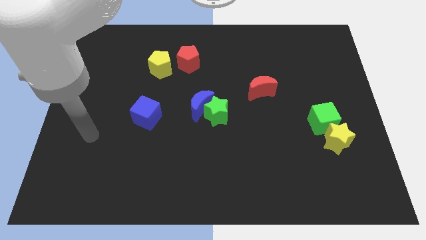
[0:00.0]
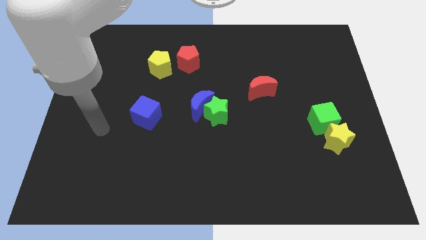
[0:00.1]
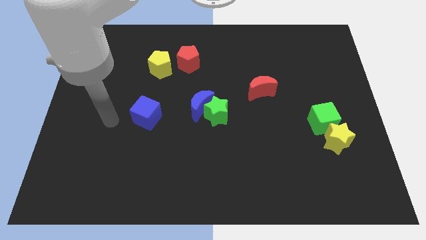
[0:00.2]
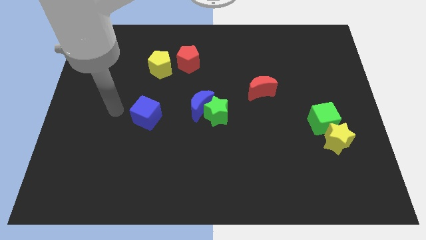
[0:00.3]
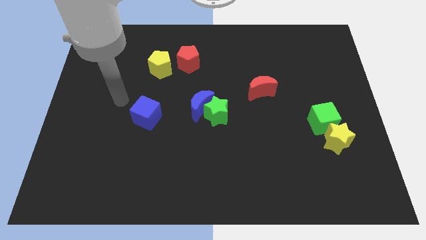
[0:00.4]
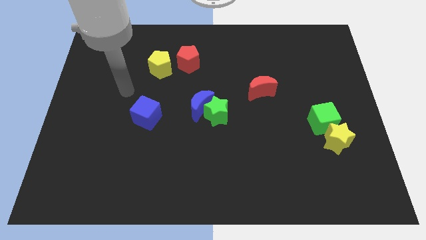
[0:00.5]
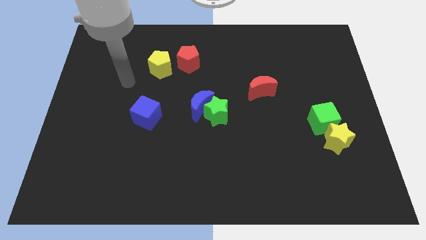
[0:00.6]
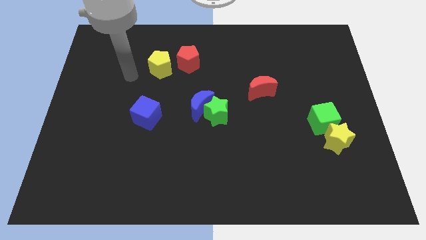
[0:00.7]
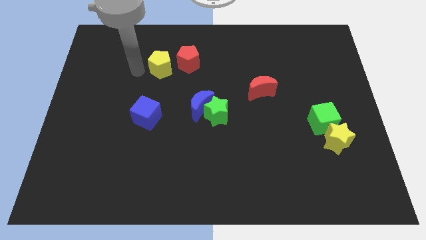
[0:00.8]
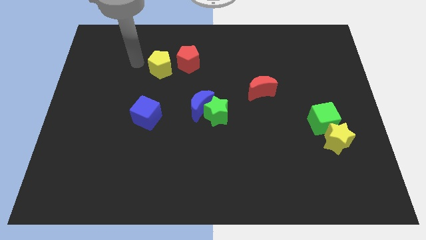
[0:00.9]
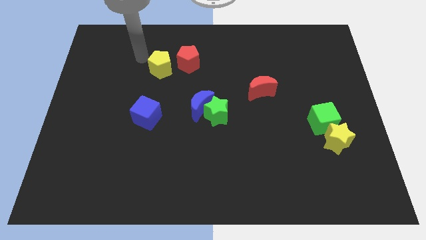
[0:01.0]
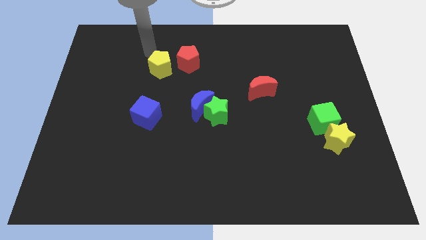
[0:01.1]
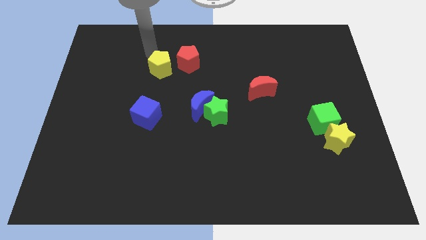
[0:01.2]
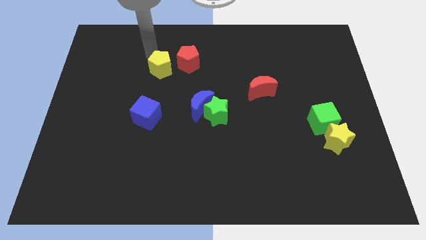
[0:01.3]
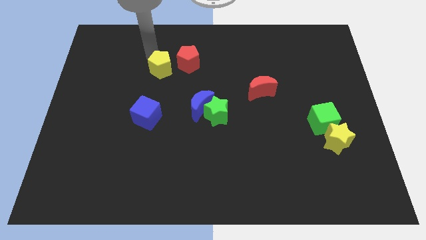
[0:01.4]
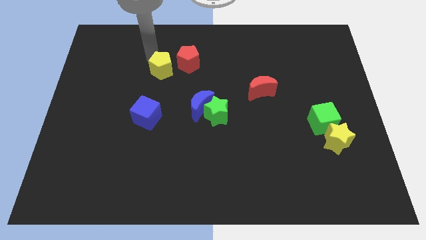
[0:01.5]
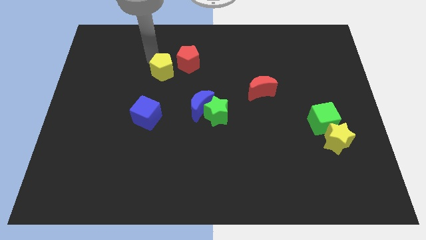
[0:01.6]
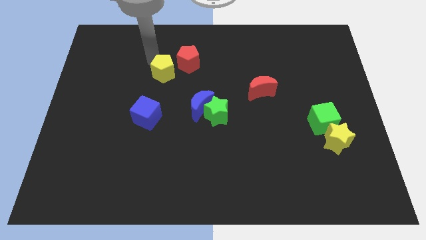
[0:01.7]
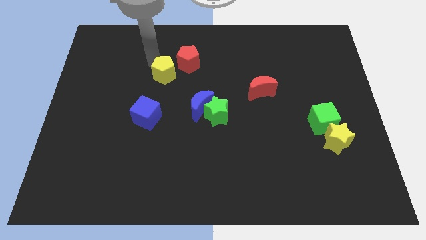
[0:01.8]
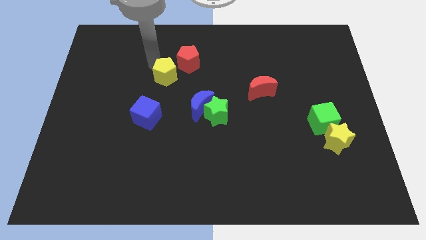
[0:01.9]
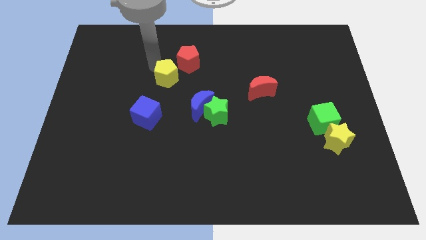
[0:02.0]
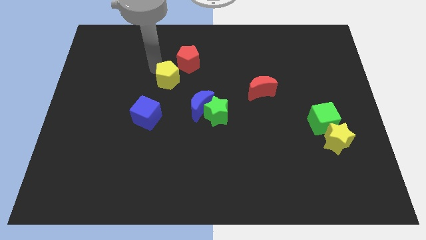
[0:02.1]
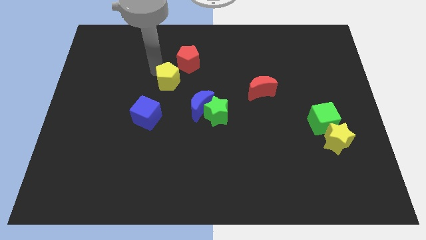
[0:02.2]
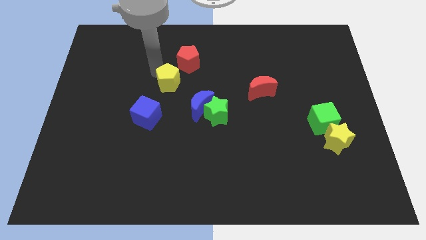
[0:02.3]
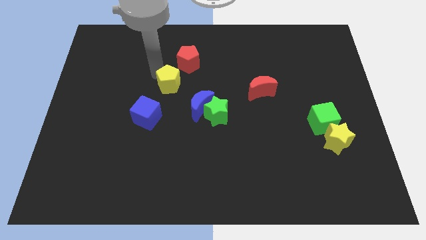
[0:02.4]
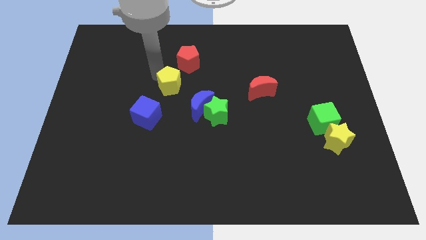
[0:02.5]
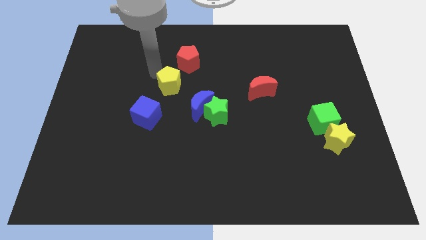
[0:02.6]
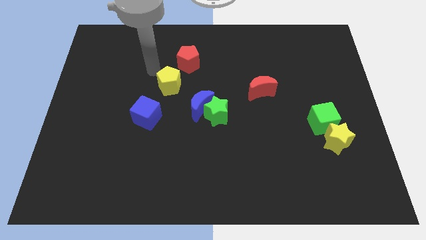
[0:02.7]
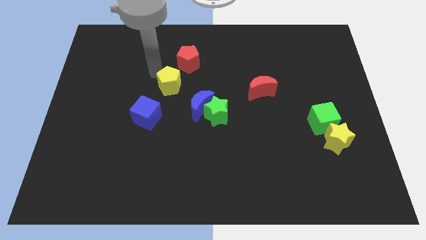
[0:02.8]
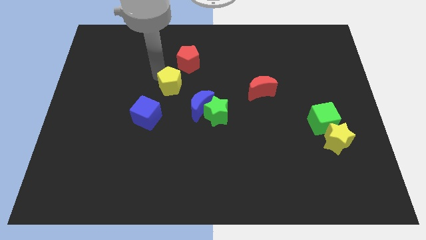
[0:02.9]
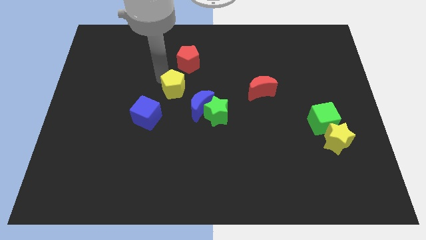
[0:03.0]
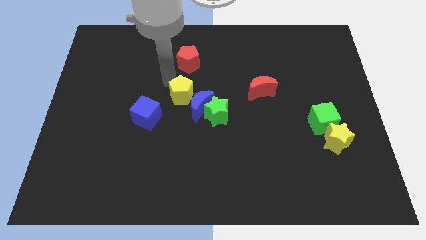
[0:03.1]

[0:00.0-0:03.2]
slightly move the yellow pentagon downwards

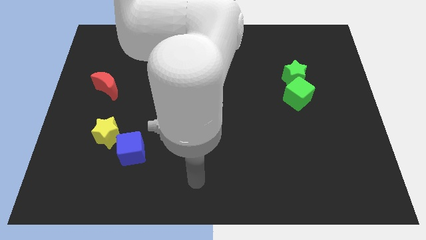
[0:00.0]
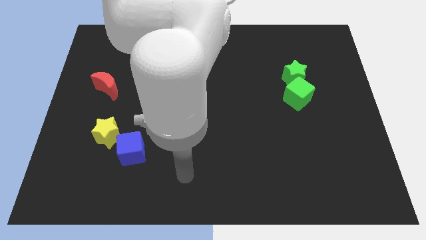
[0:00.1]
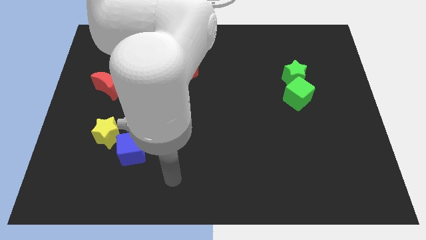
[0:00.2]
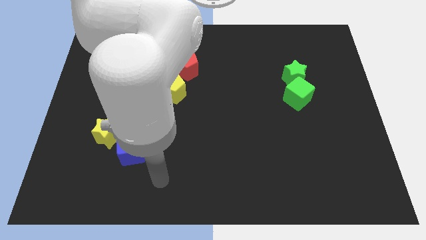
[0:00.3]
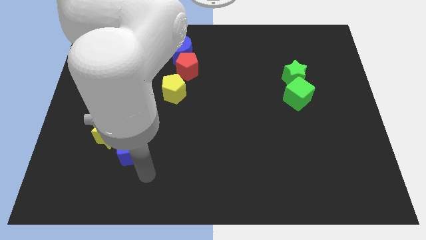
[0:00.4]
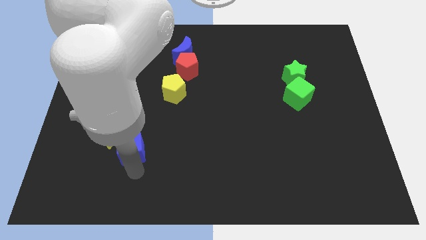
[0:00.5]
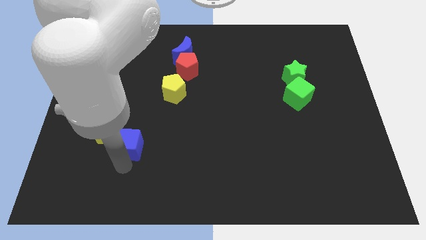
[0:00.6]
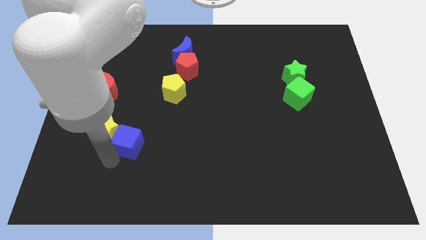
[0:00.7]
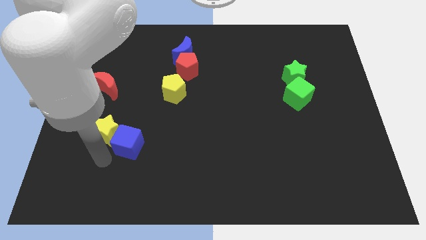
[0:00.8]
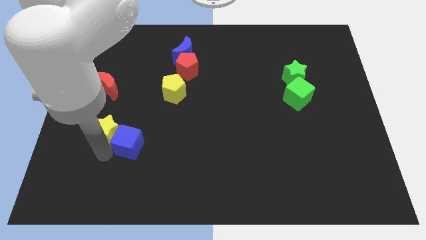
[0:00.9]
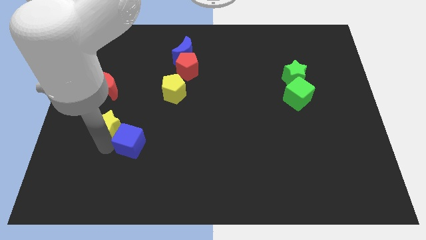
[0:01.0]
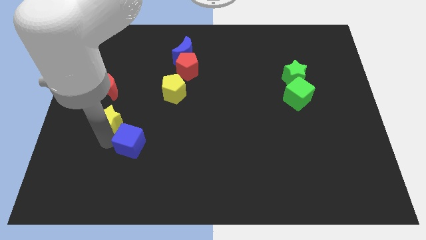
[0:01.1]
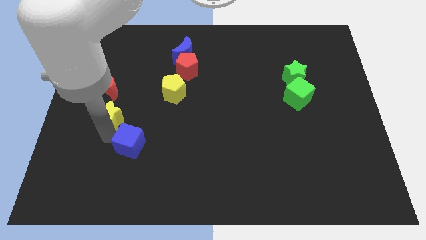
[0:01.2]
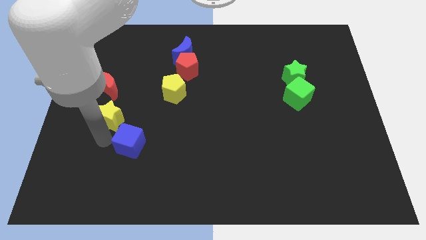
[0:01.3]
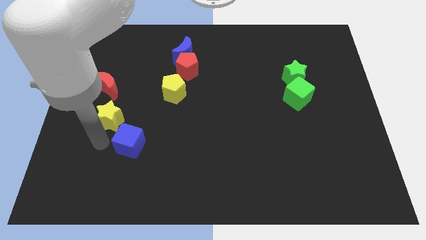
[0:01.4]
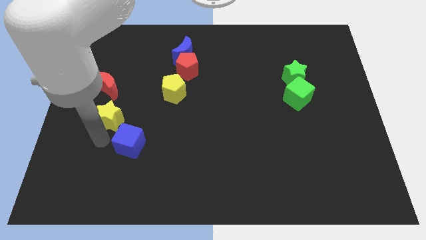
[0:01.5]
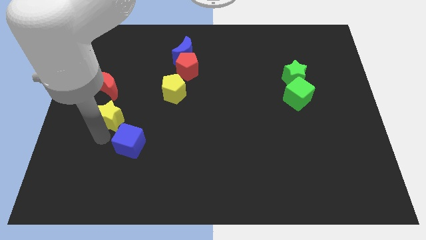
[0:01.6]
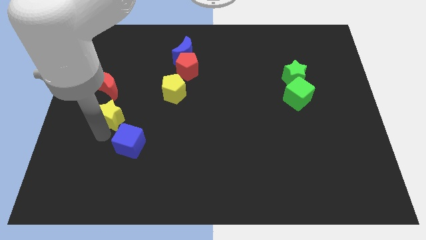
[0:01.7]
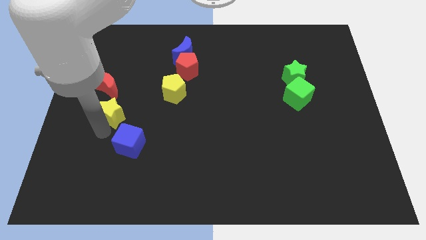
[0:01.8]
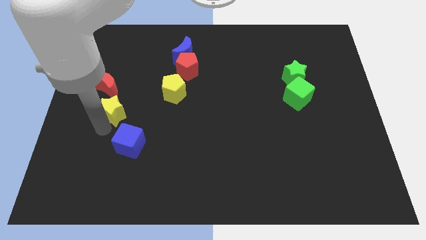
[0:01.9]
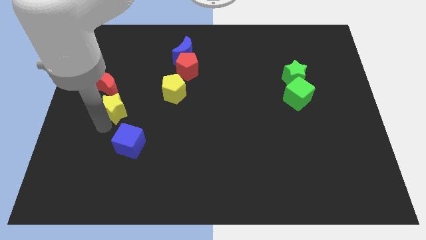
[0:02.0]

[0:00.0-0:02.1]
push the yellow star upwards a little

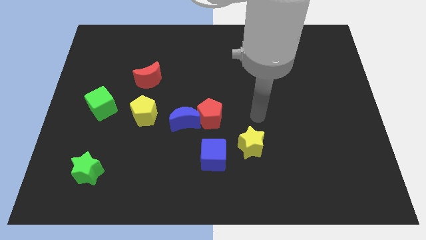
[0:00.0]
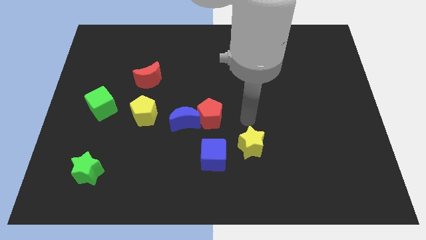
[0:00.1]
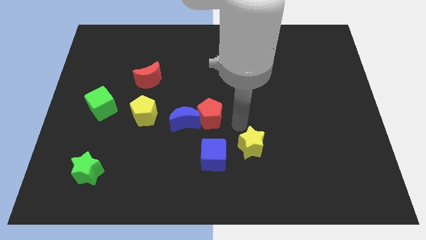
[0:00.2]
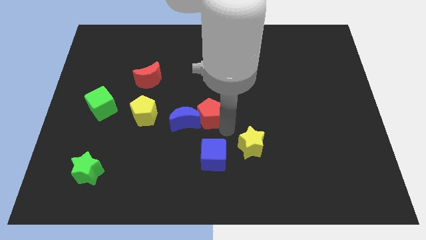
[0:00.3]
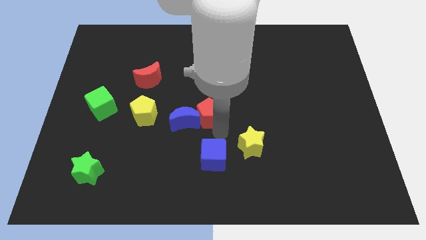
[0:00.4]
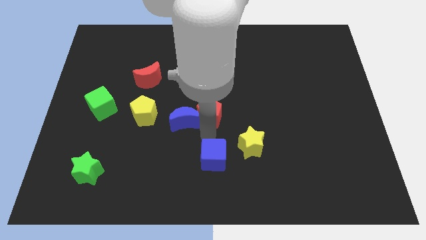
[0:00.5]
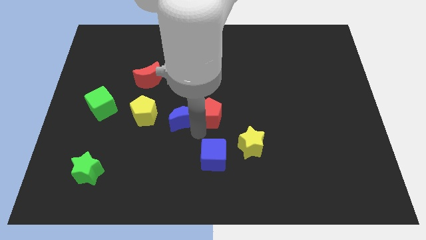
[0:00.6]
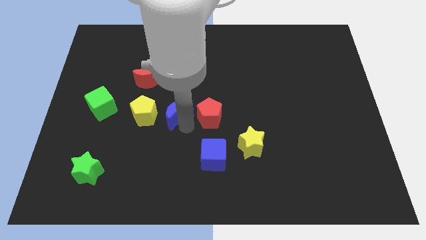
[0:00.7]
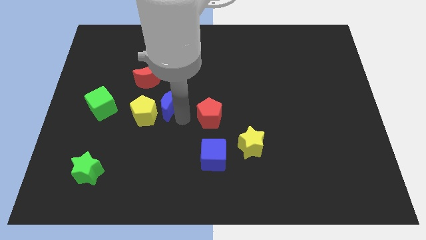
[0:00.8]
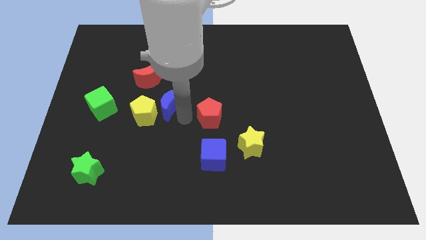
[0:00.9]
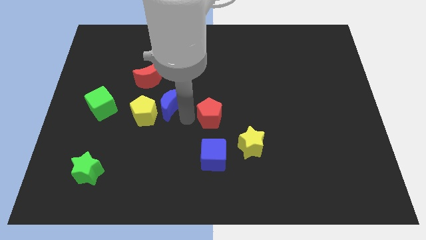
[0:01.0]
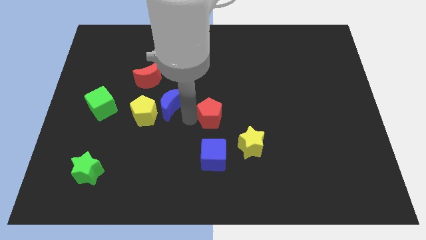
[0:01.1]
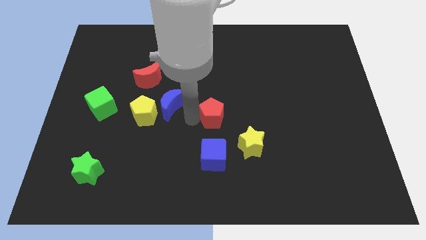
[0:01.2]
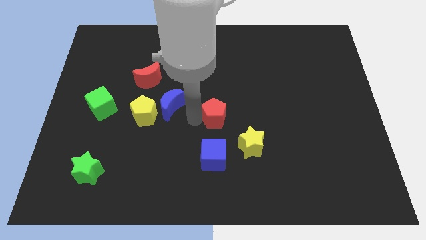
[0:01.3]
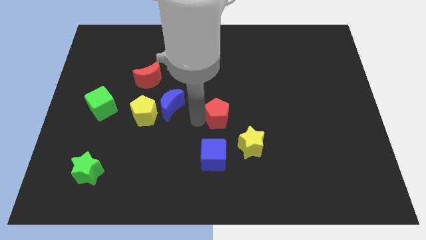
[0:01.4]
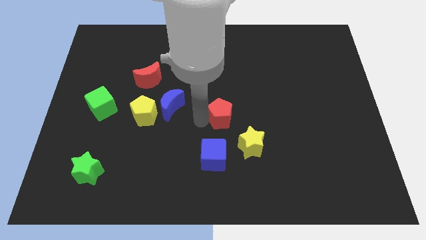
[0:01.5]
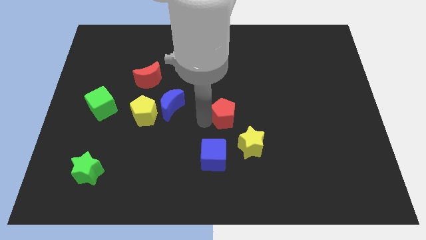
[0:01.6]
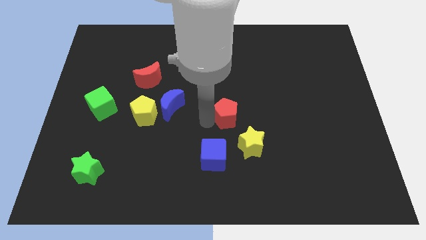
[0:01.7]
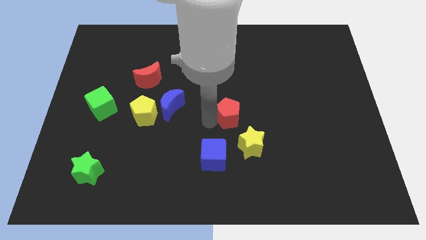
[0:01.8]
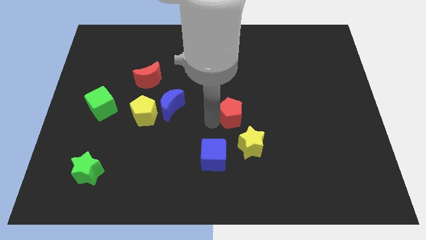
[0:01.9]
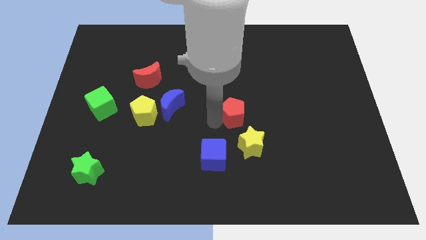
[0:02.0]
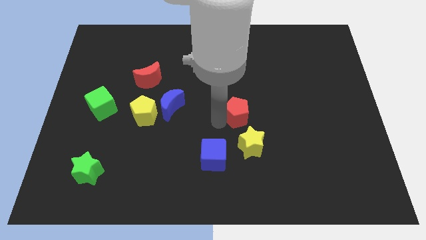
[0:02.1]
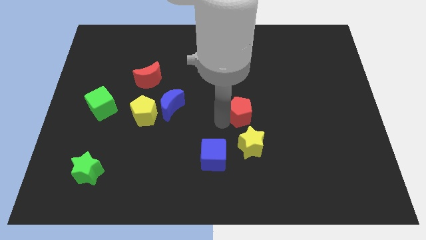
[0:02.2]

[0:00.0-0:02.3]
slide the red pentagon to the right a bit

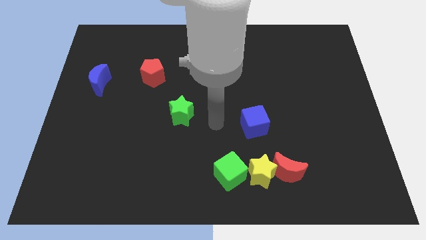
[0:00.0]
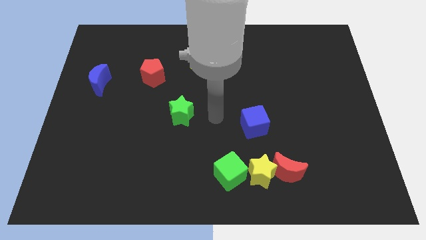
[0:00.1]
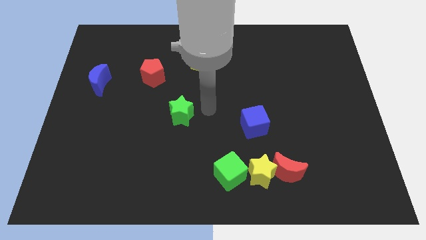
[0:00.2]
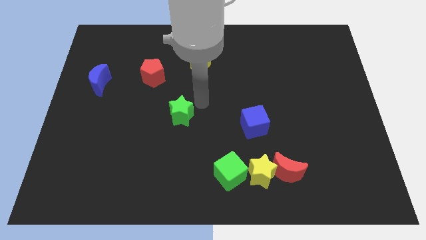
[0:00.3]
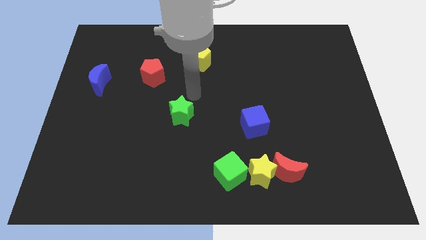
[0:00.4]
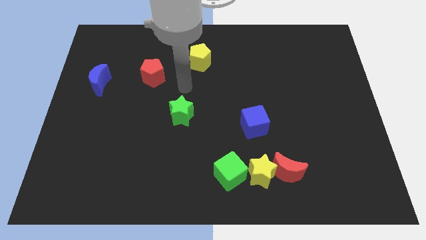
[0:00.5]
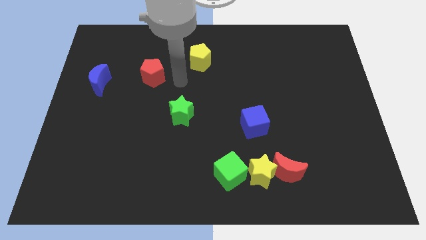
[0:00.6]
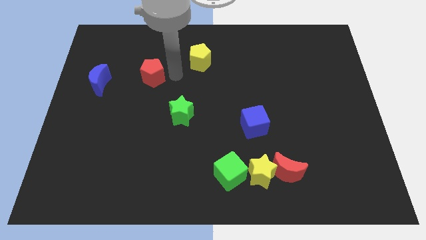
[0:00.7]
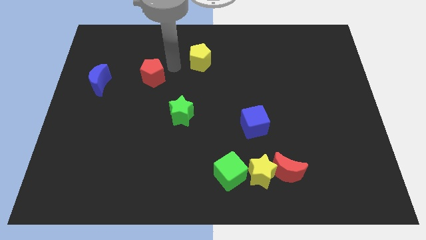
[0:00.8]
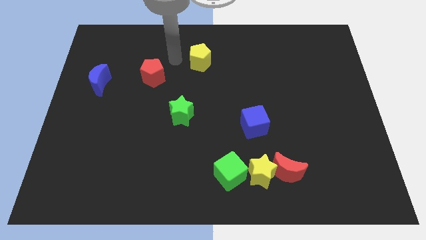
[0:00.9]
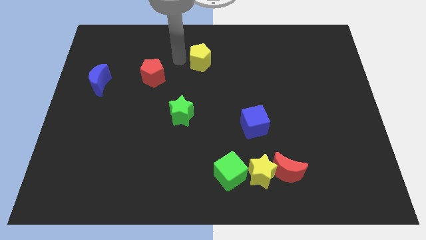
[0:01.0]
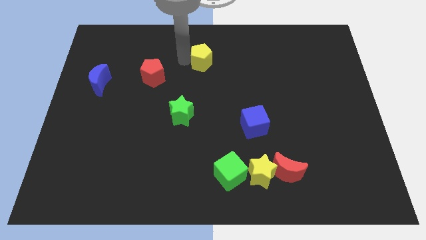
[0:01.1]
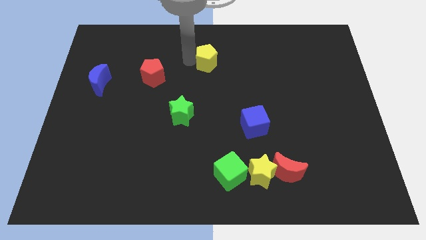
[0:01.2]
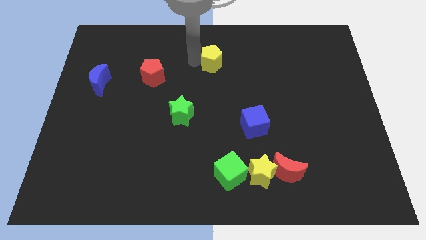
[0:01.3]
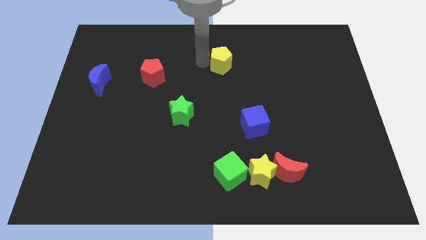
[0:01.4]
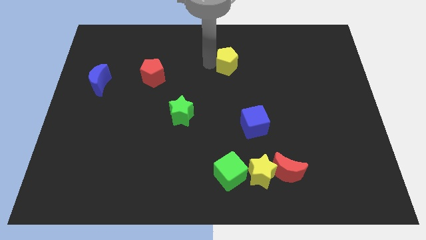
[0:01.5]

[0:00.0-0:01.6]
move the yellow pentagon a little to the right
